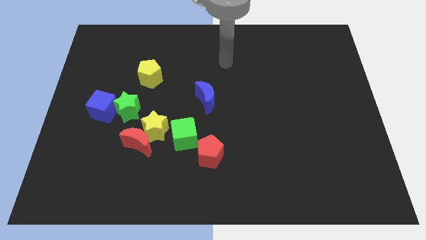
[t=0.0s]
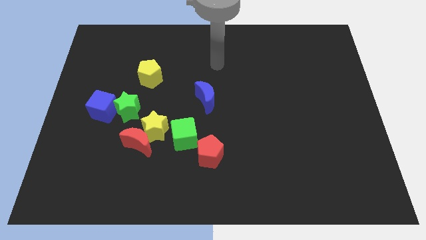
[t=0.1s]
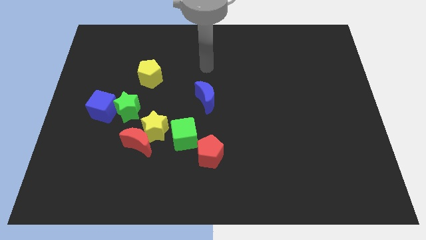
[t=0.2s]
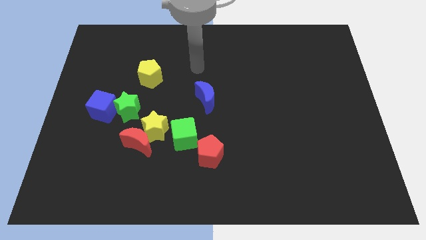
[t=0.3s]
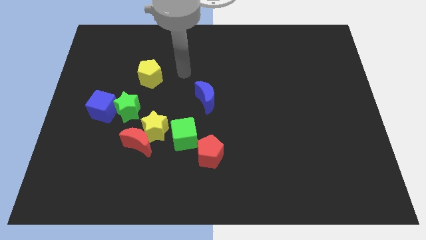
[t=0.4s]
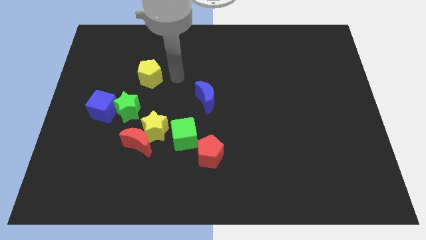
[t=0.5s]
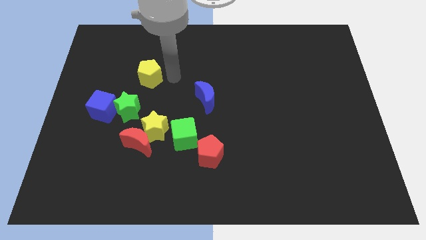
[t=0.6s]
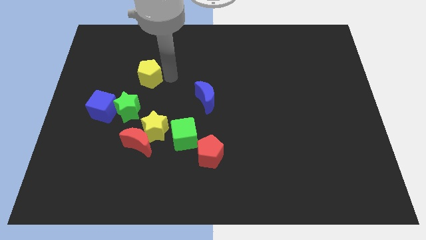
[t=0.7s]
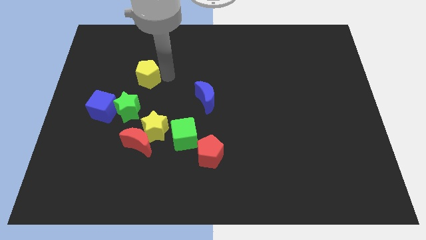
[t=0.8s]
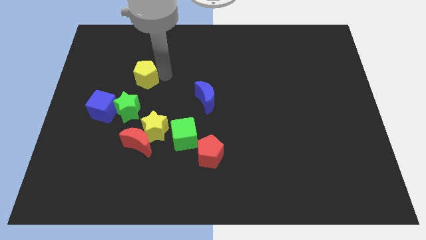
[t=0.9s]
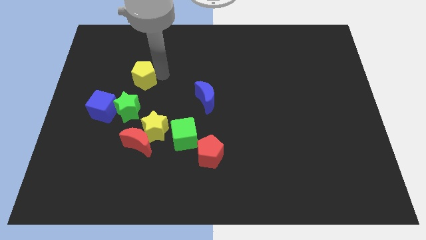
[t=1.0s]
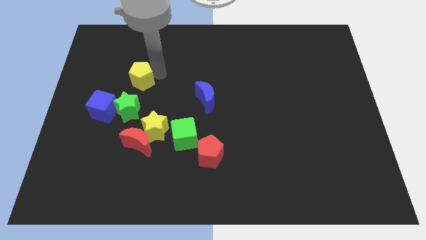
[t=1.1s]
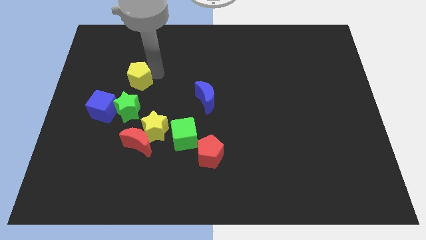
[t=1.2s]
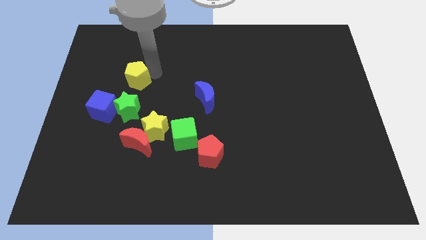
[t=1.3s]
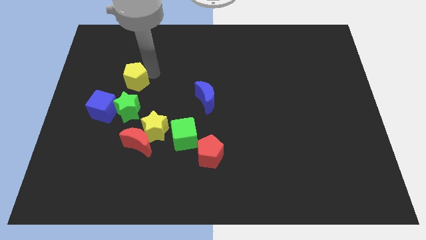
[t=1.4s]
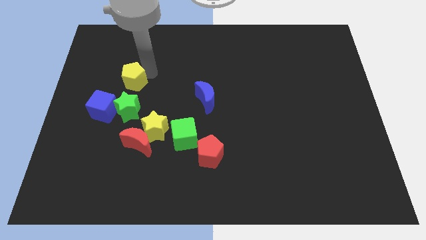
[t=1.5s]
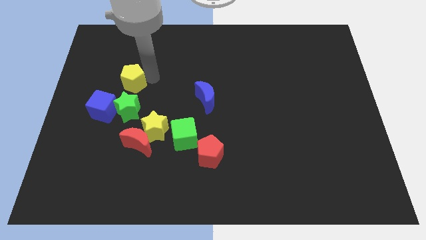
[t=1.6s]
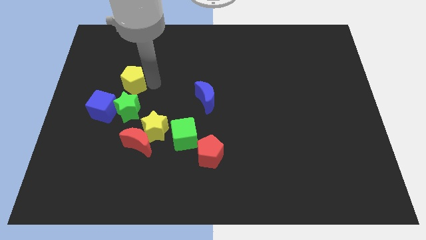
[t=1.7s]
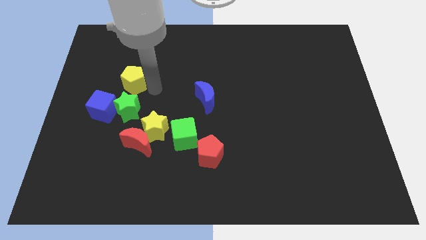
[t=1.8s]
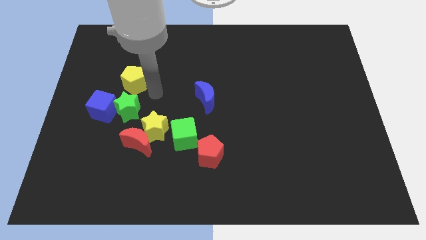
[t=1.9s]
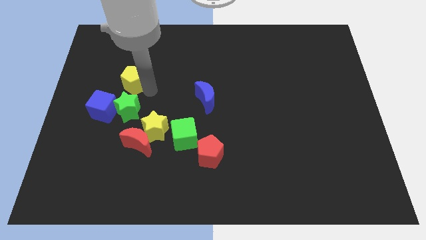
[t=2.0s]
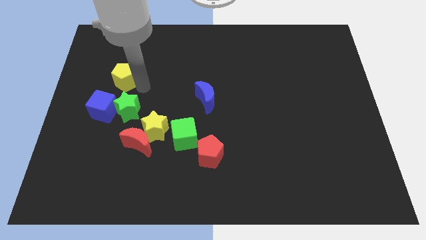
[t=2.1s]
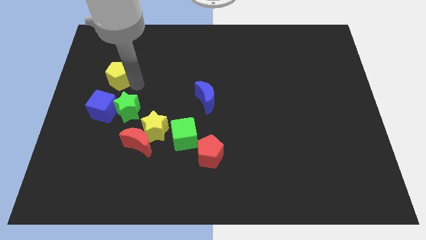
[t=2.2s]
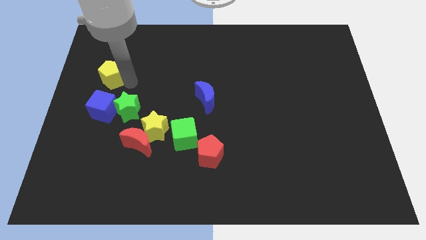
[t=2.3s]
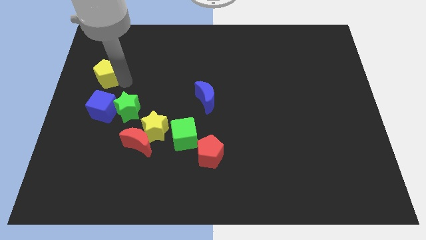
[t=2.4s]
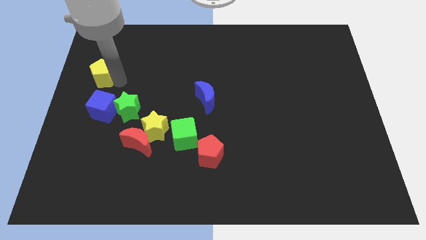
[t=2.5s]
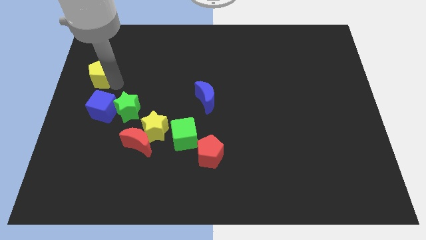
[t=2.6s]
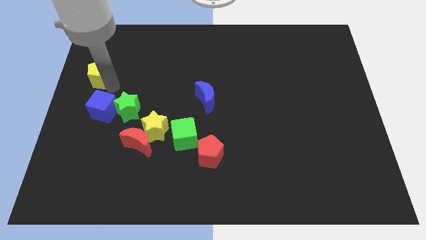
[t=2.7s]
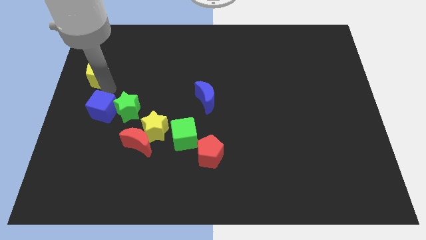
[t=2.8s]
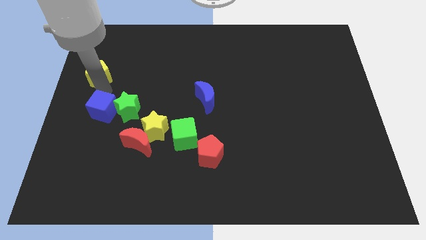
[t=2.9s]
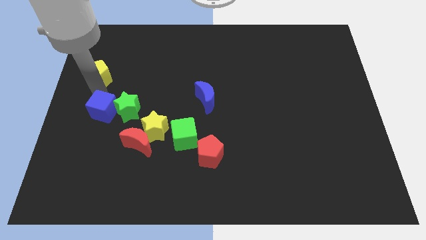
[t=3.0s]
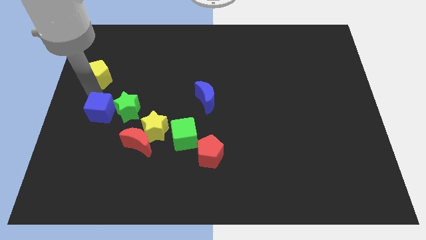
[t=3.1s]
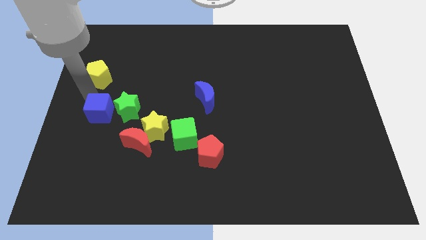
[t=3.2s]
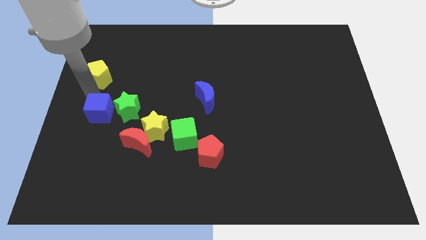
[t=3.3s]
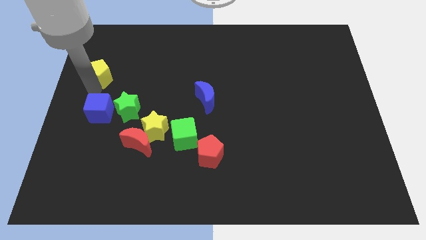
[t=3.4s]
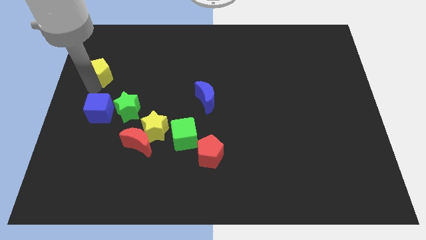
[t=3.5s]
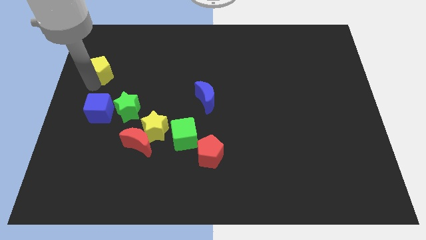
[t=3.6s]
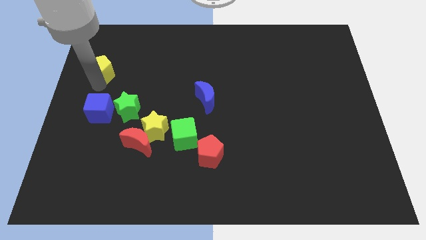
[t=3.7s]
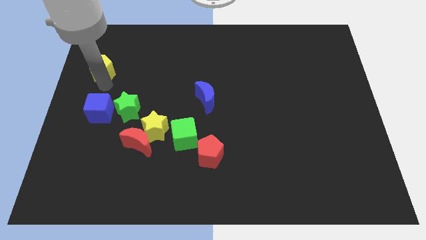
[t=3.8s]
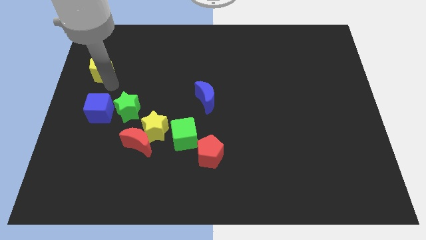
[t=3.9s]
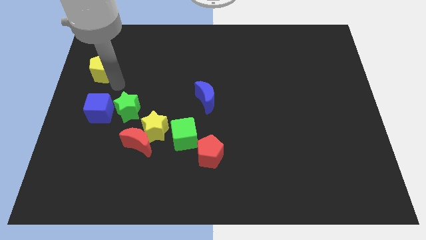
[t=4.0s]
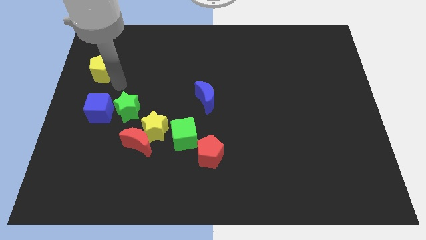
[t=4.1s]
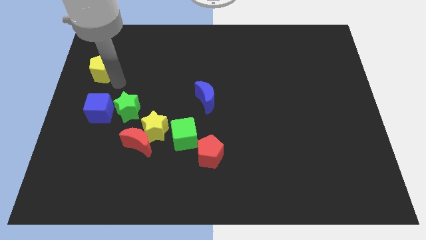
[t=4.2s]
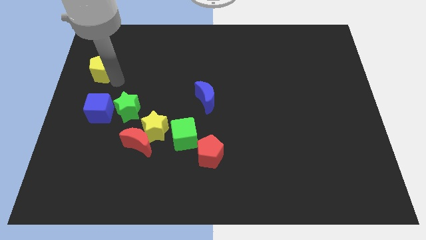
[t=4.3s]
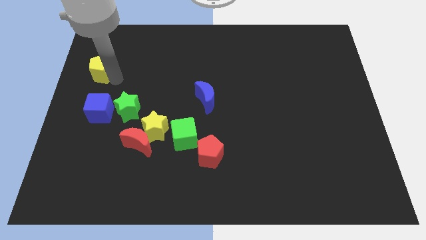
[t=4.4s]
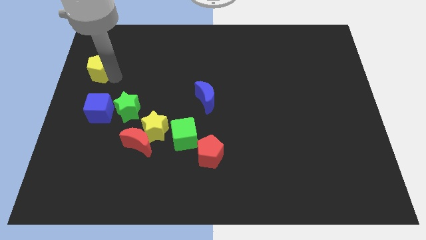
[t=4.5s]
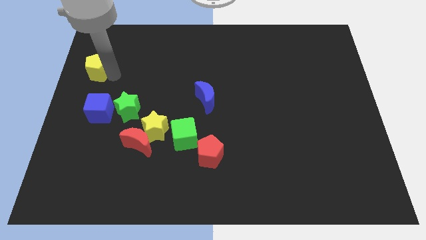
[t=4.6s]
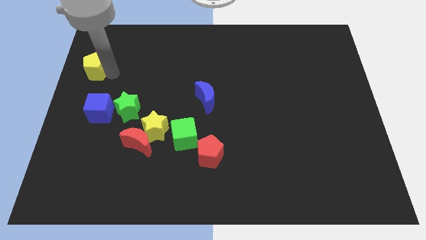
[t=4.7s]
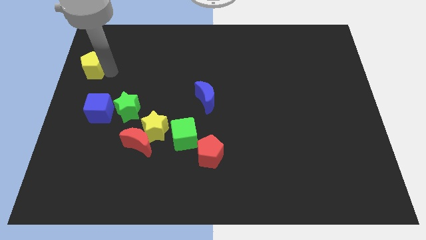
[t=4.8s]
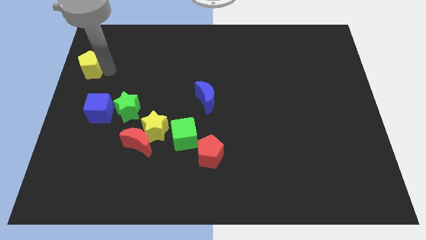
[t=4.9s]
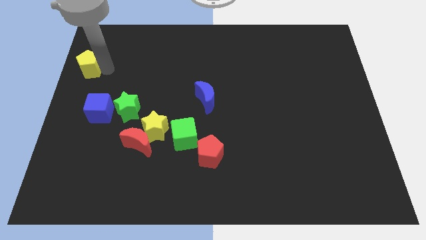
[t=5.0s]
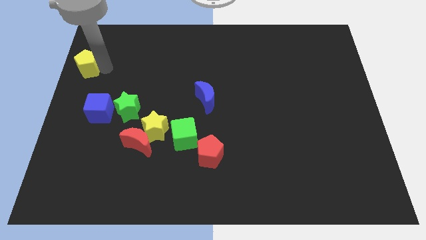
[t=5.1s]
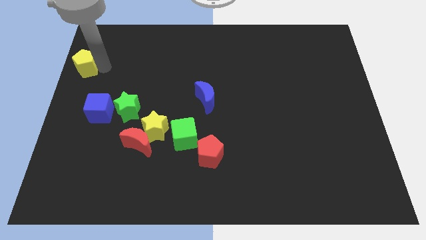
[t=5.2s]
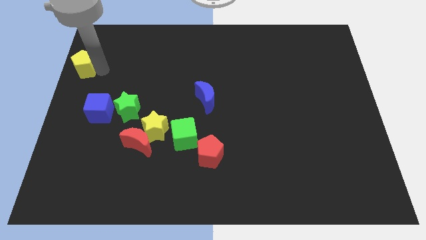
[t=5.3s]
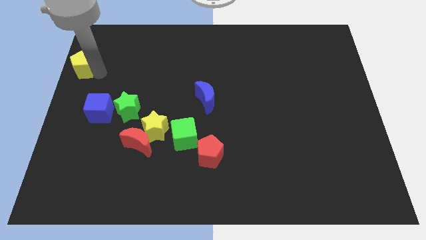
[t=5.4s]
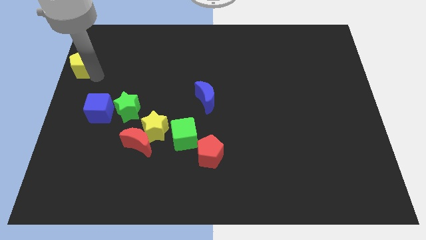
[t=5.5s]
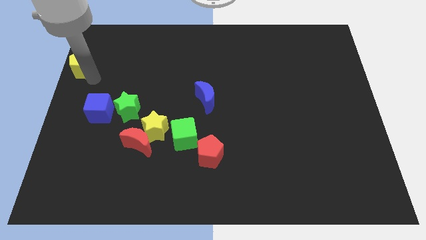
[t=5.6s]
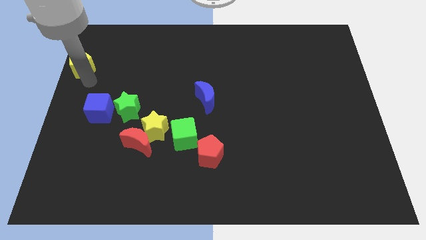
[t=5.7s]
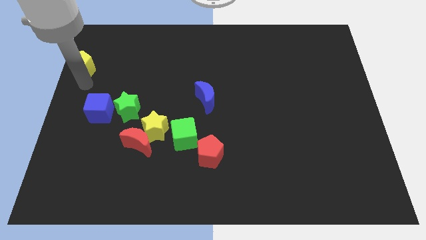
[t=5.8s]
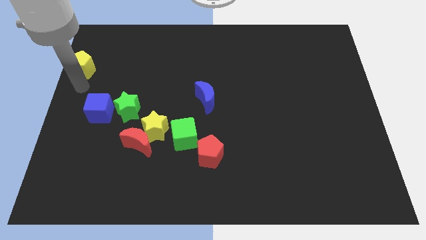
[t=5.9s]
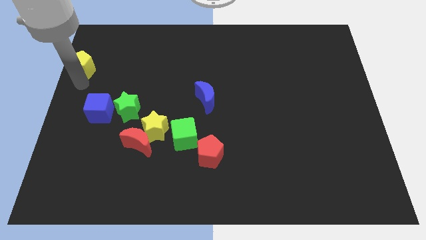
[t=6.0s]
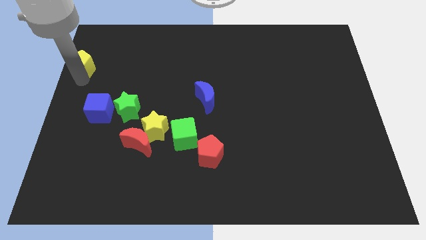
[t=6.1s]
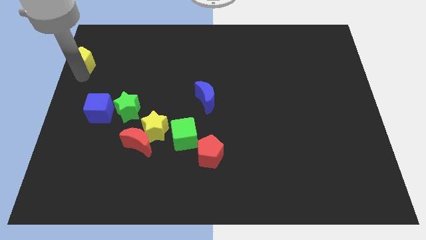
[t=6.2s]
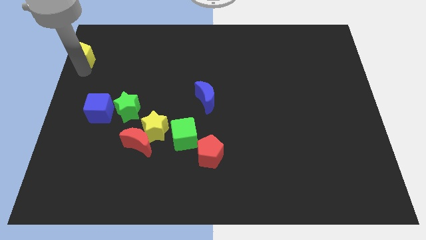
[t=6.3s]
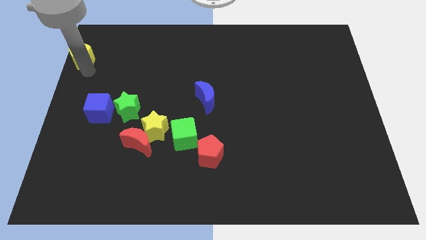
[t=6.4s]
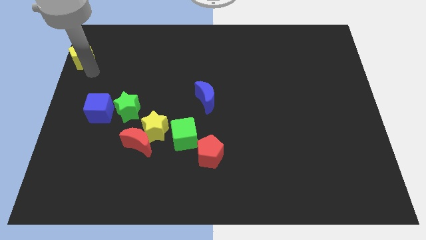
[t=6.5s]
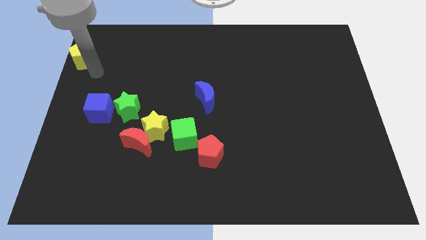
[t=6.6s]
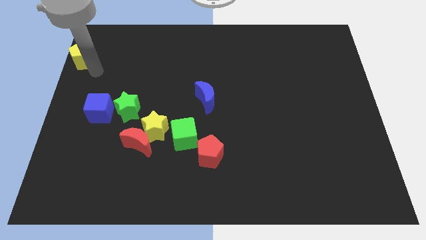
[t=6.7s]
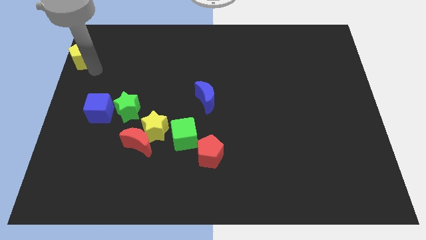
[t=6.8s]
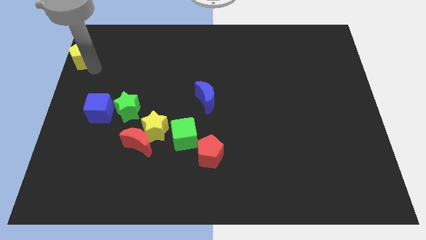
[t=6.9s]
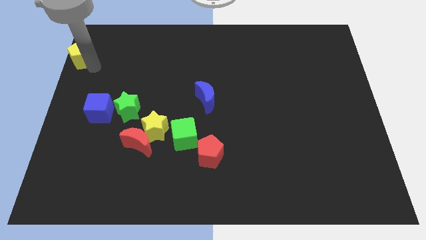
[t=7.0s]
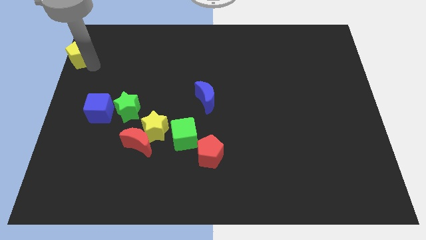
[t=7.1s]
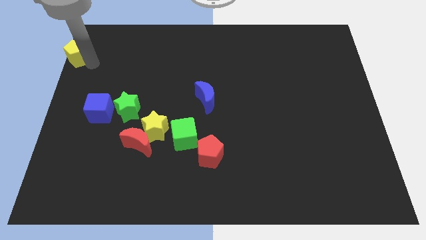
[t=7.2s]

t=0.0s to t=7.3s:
slide the yellow pentagon to the upper left corner

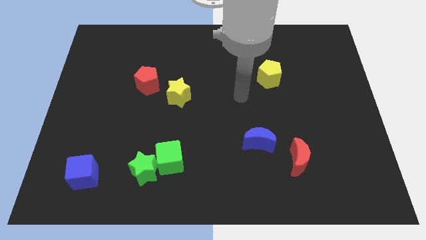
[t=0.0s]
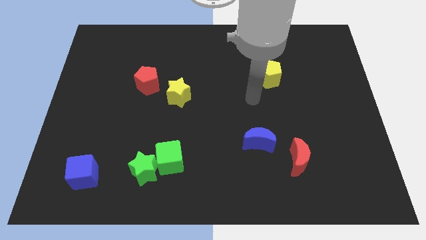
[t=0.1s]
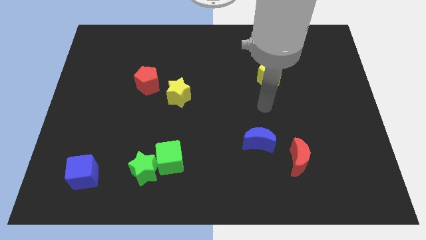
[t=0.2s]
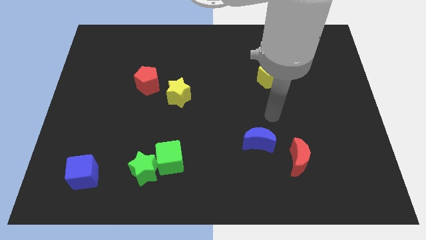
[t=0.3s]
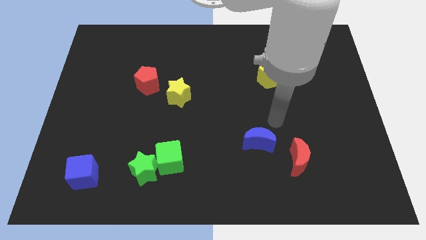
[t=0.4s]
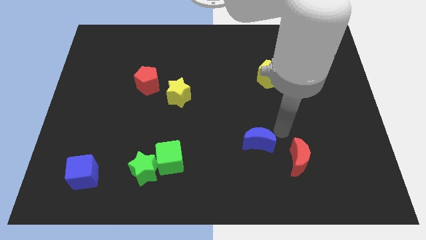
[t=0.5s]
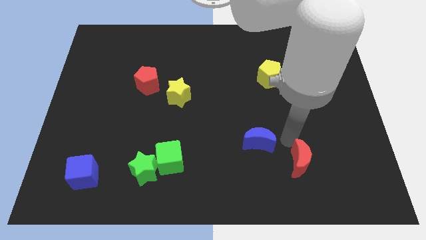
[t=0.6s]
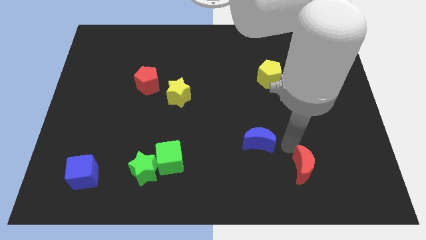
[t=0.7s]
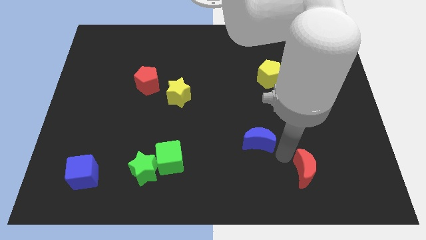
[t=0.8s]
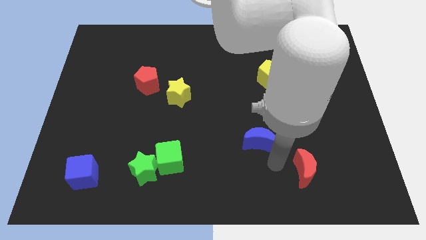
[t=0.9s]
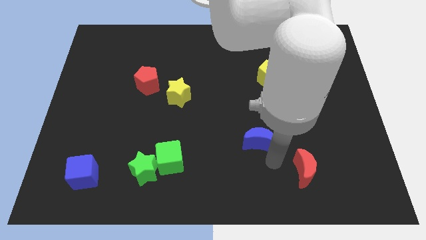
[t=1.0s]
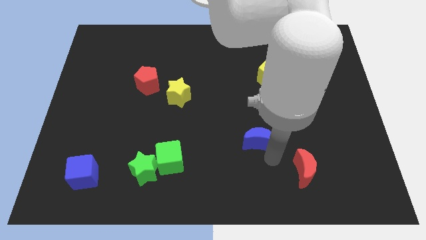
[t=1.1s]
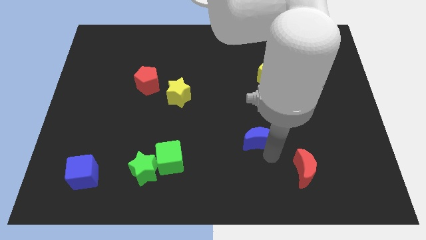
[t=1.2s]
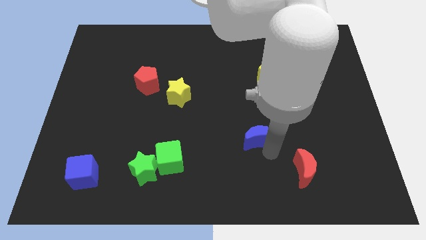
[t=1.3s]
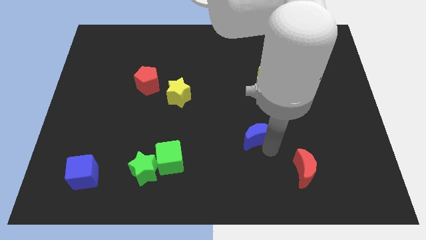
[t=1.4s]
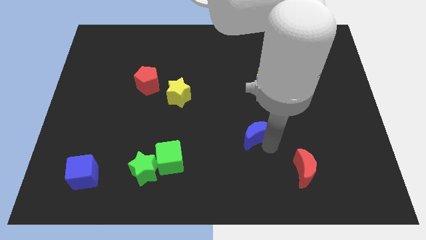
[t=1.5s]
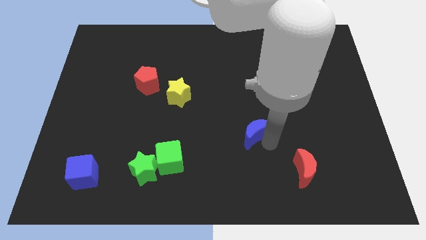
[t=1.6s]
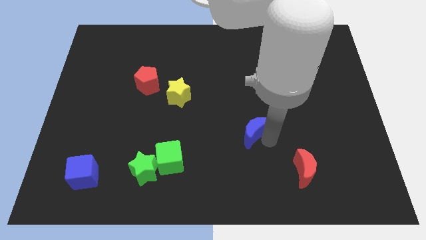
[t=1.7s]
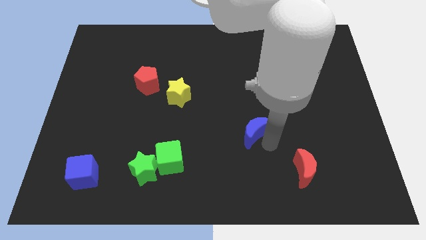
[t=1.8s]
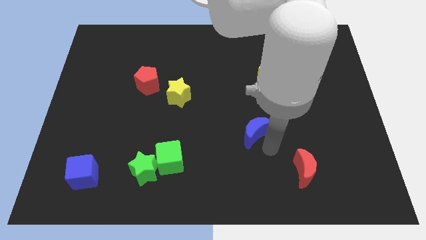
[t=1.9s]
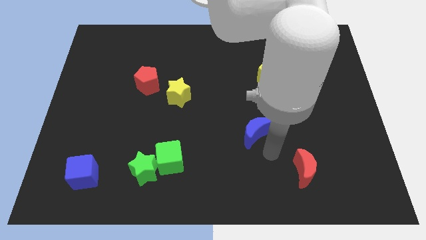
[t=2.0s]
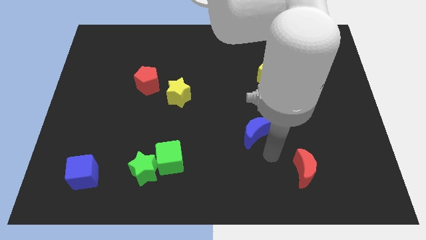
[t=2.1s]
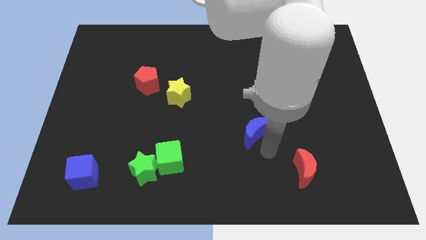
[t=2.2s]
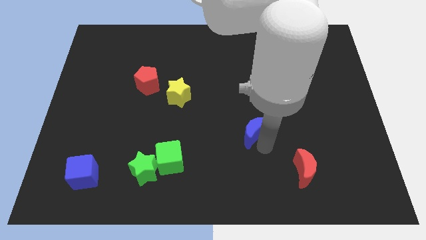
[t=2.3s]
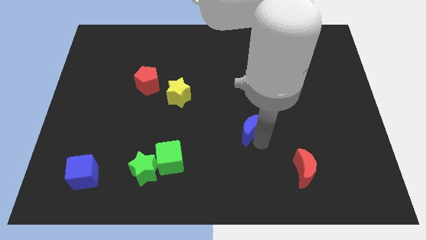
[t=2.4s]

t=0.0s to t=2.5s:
slide the blue moon to the center of the board
